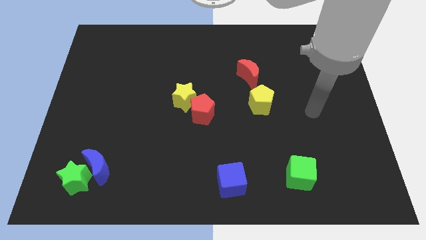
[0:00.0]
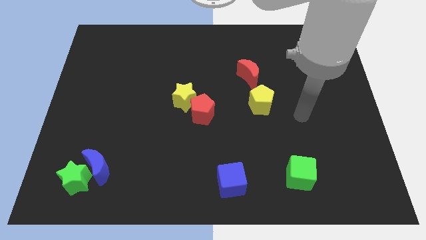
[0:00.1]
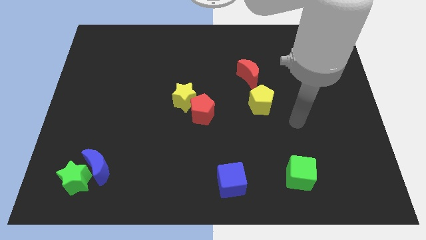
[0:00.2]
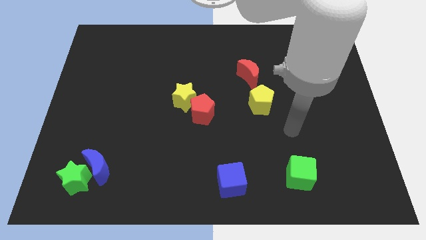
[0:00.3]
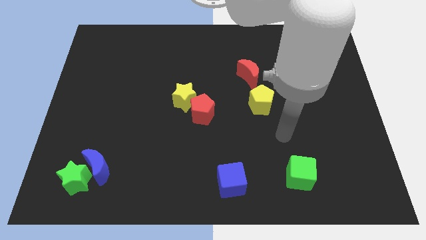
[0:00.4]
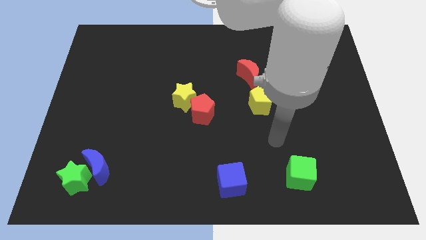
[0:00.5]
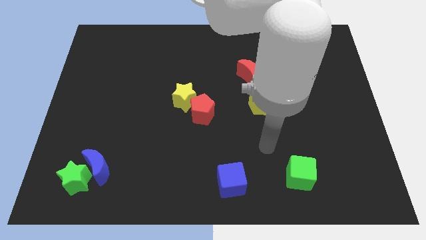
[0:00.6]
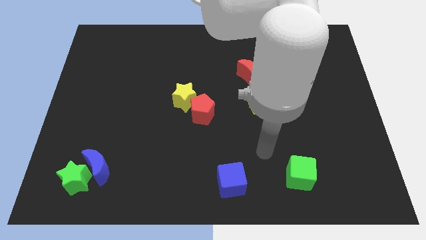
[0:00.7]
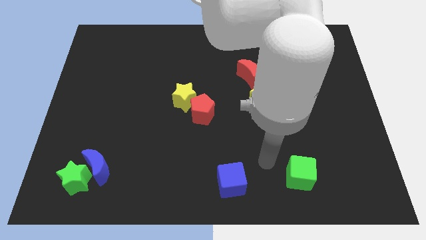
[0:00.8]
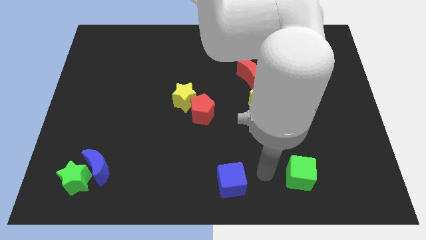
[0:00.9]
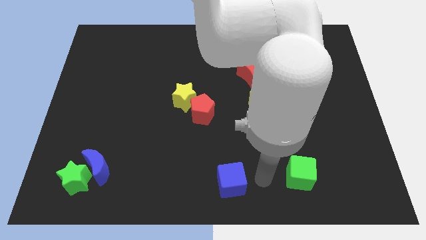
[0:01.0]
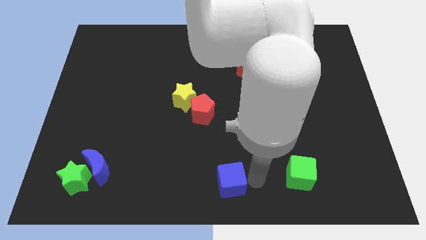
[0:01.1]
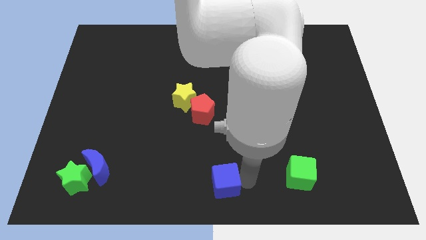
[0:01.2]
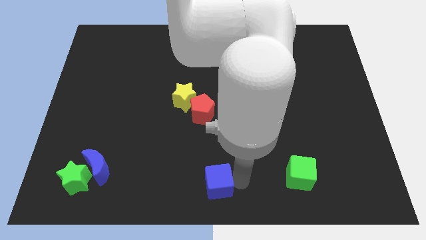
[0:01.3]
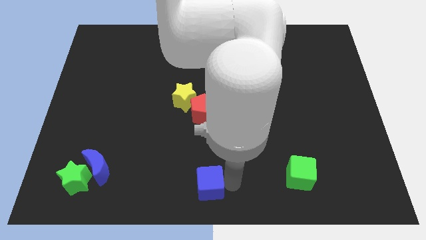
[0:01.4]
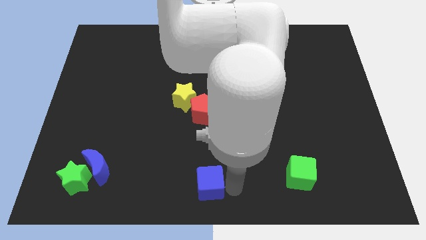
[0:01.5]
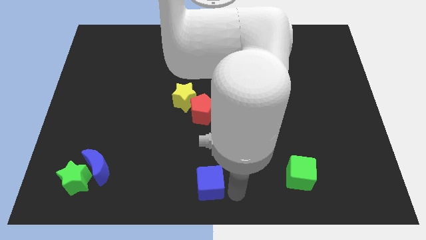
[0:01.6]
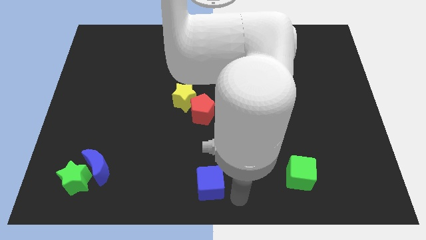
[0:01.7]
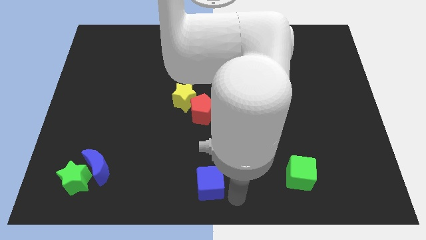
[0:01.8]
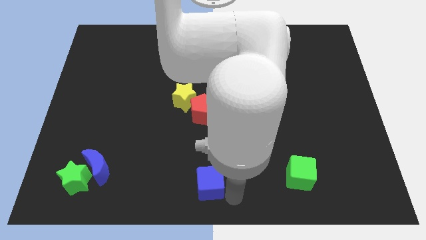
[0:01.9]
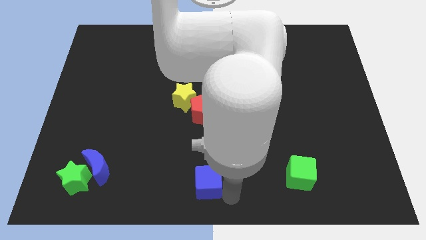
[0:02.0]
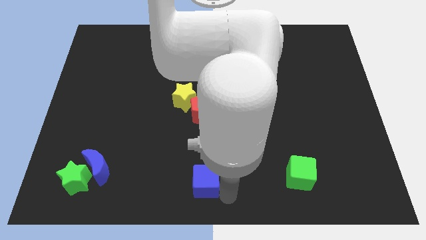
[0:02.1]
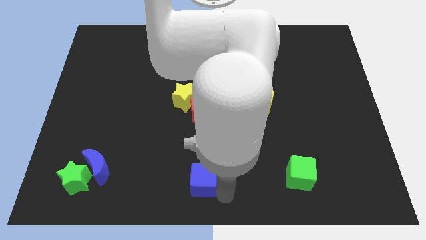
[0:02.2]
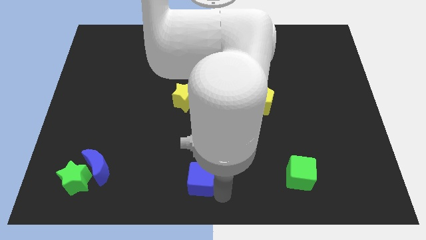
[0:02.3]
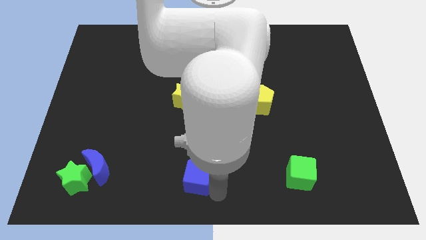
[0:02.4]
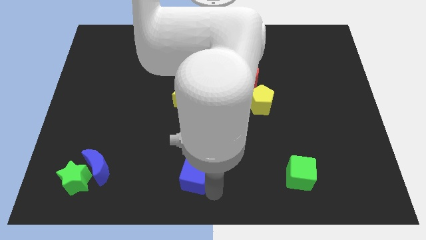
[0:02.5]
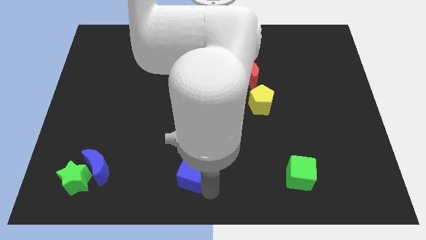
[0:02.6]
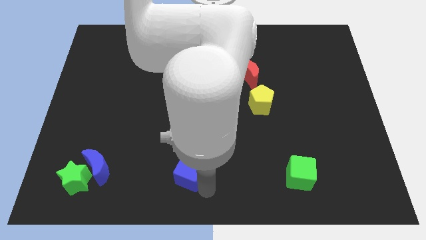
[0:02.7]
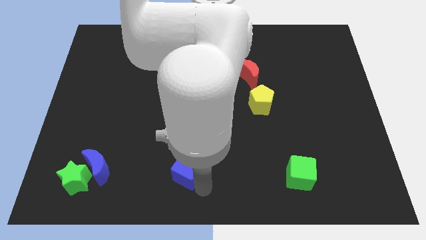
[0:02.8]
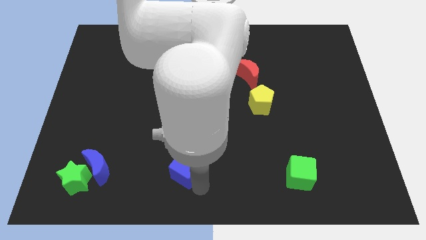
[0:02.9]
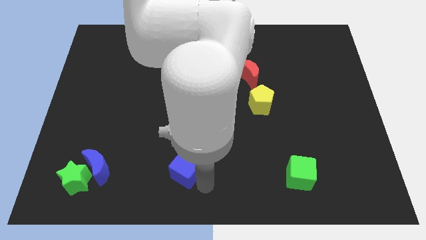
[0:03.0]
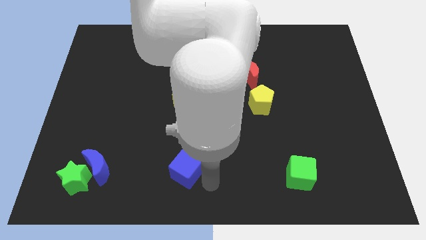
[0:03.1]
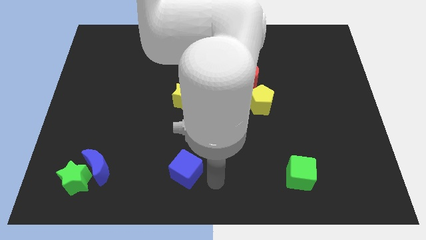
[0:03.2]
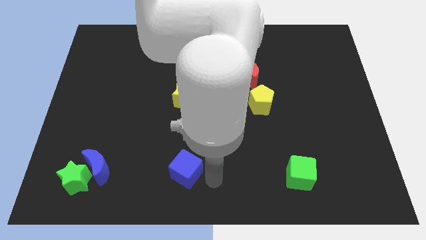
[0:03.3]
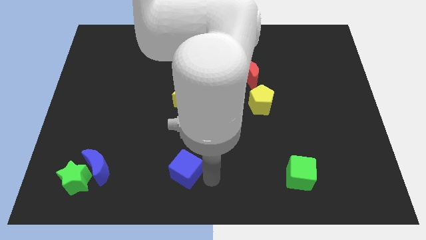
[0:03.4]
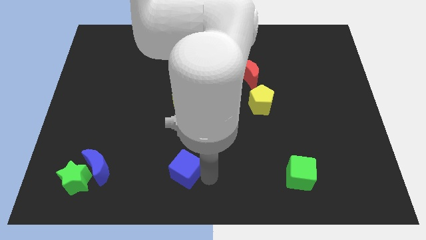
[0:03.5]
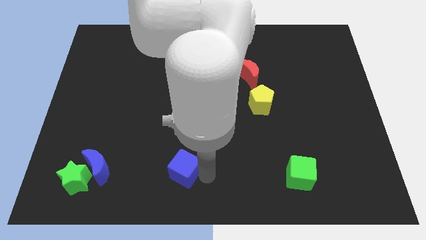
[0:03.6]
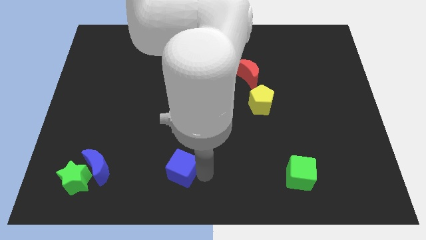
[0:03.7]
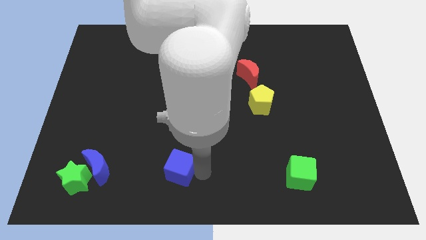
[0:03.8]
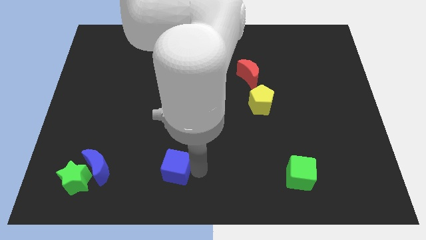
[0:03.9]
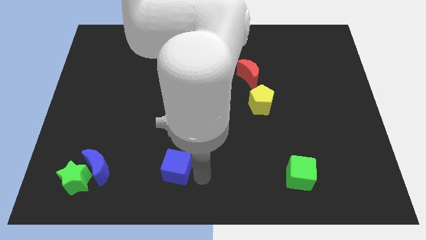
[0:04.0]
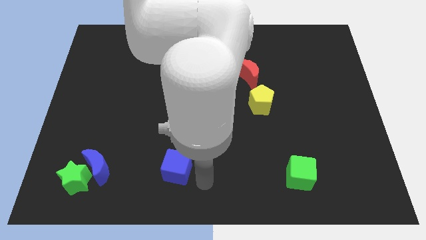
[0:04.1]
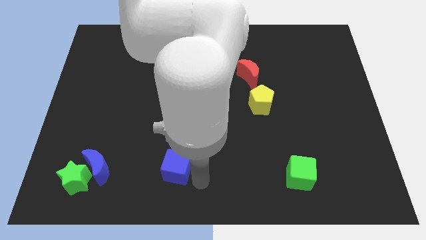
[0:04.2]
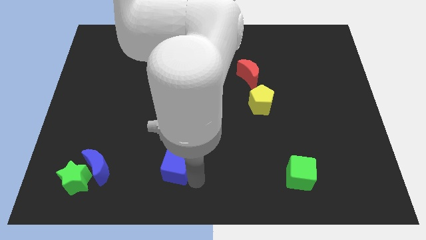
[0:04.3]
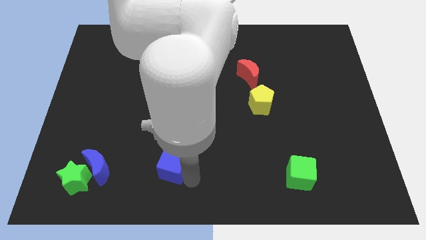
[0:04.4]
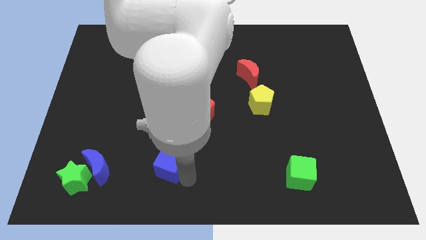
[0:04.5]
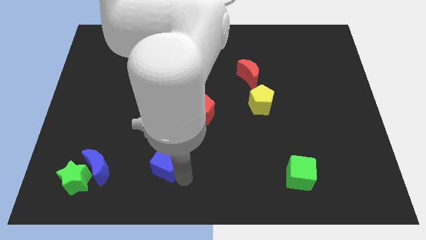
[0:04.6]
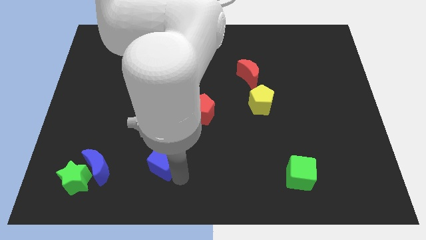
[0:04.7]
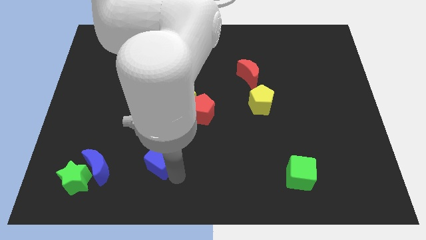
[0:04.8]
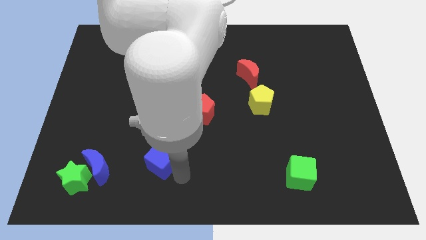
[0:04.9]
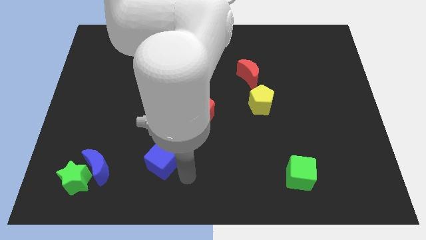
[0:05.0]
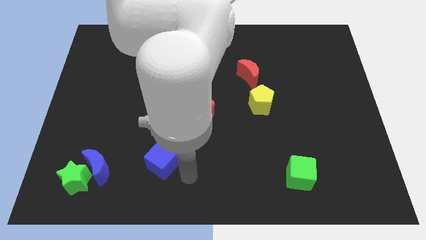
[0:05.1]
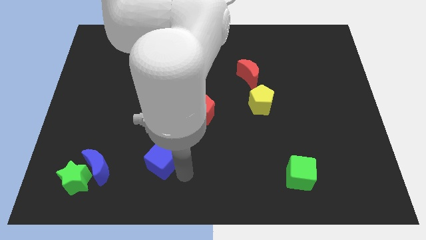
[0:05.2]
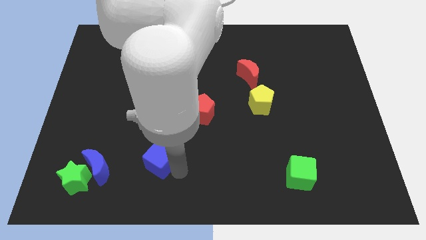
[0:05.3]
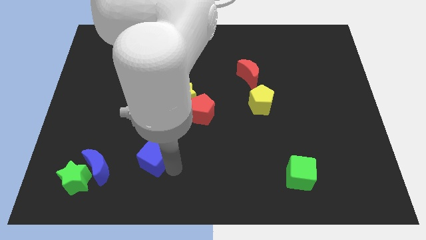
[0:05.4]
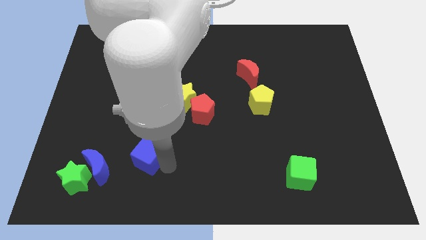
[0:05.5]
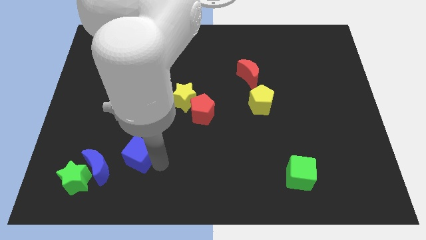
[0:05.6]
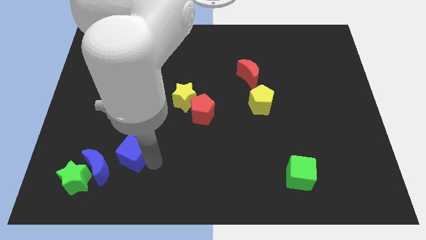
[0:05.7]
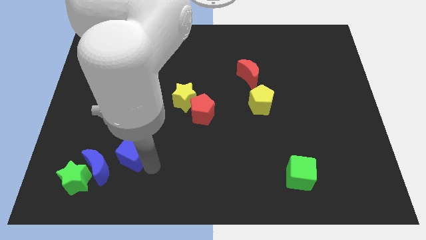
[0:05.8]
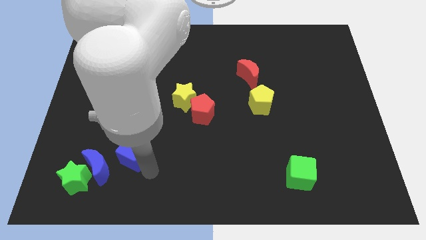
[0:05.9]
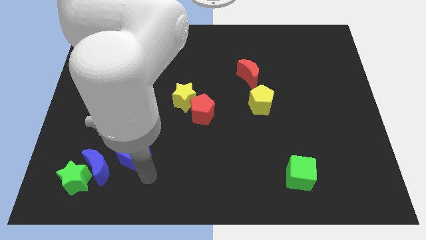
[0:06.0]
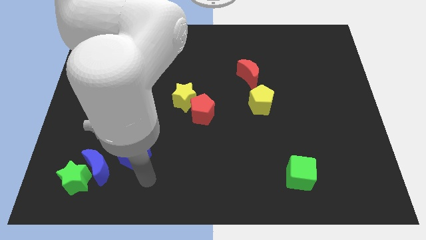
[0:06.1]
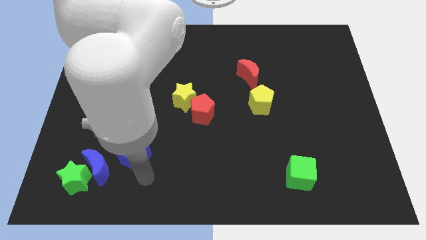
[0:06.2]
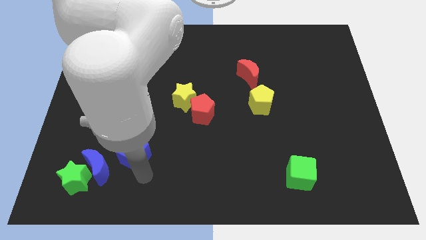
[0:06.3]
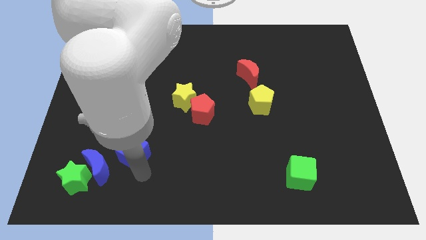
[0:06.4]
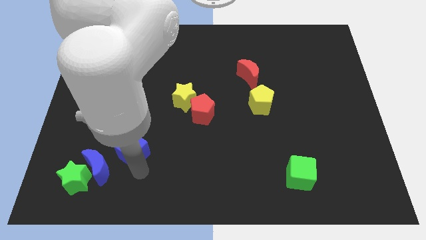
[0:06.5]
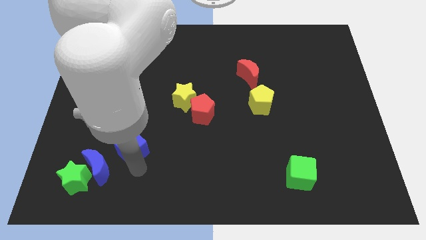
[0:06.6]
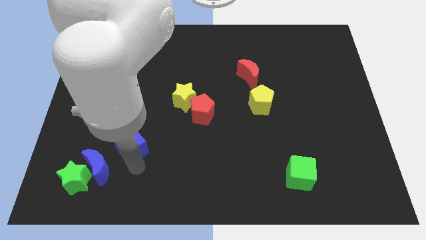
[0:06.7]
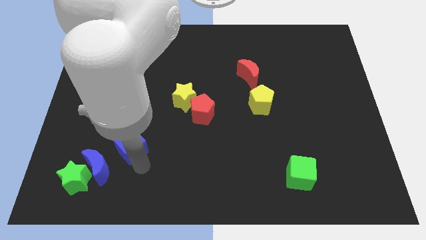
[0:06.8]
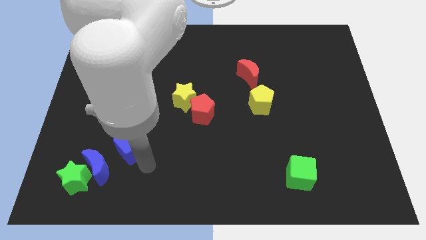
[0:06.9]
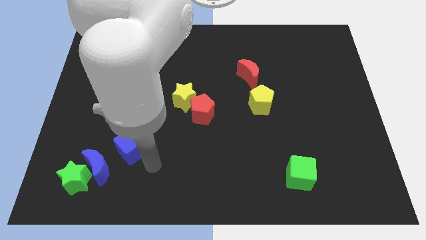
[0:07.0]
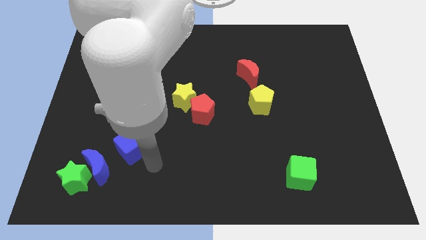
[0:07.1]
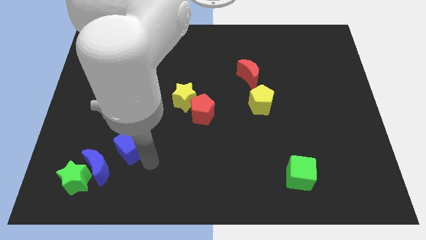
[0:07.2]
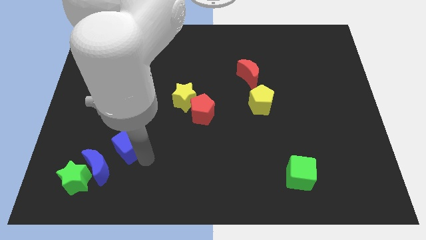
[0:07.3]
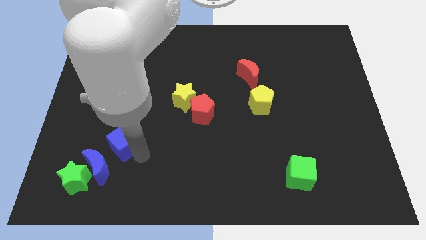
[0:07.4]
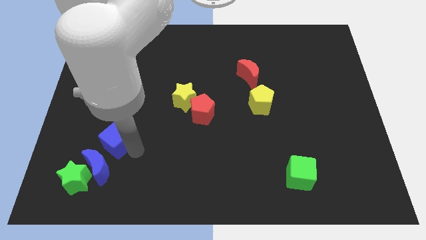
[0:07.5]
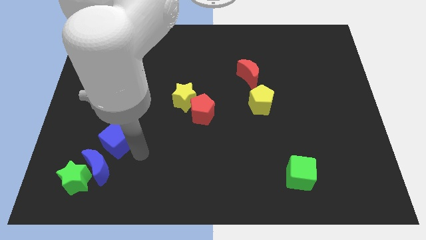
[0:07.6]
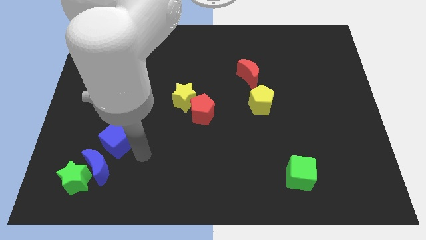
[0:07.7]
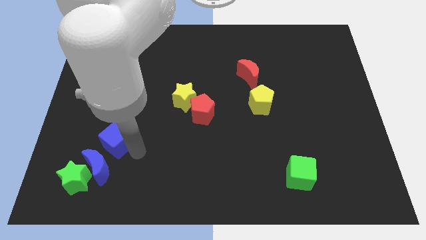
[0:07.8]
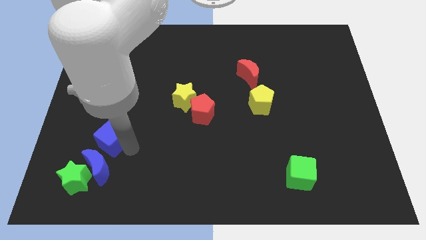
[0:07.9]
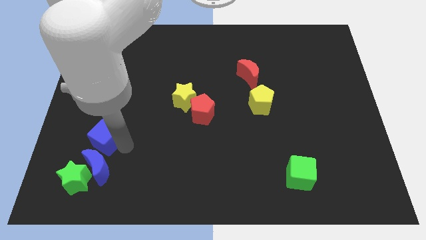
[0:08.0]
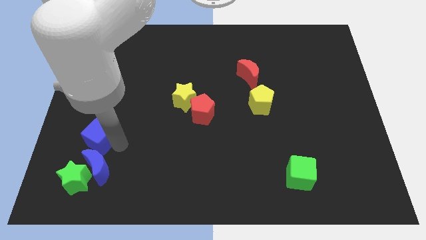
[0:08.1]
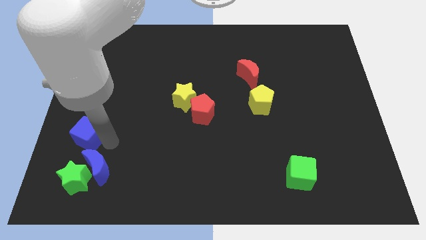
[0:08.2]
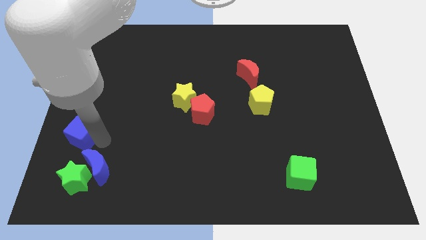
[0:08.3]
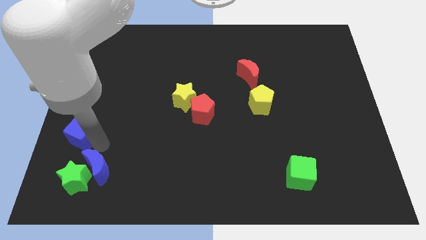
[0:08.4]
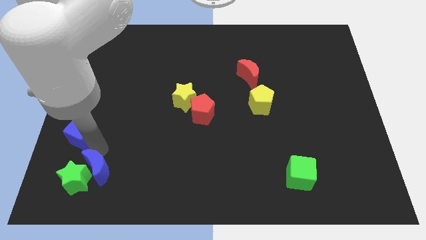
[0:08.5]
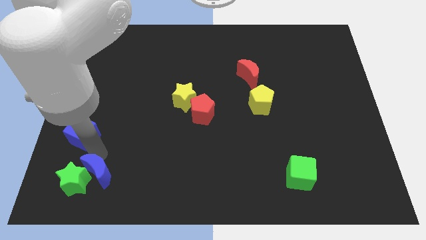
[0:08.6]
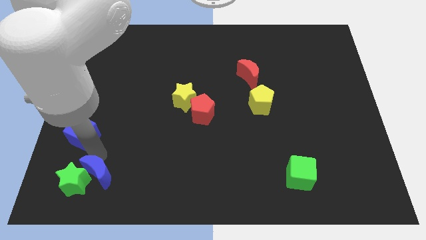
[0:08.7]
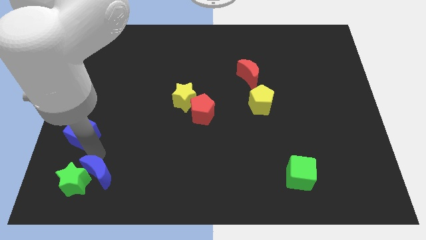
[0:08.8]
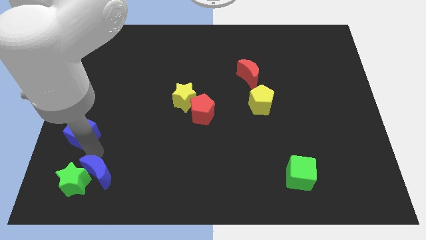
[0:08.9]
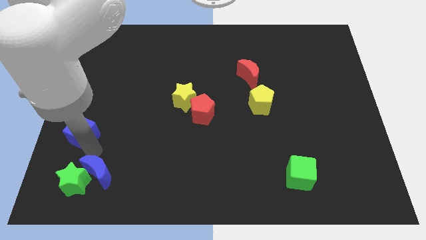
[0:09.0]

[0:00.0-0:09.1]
slide the blue cube to the left side of the board
